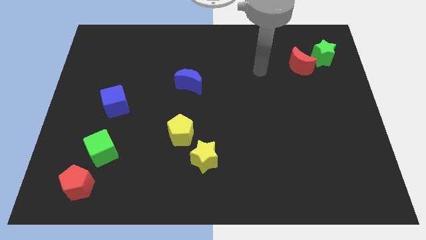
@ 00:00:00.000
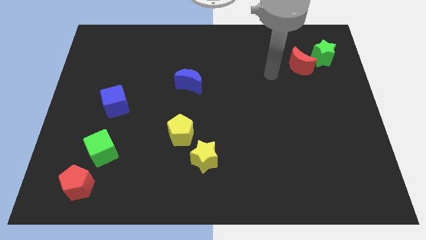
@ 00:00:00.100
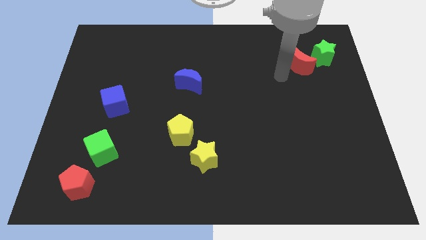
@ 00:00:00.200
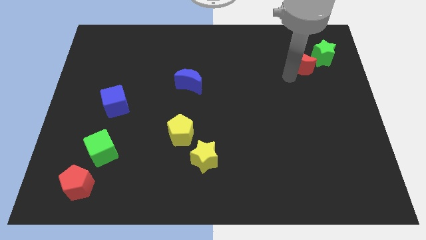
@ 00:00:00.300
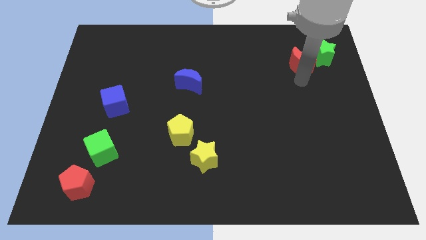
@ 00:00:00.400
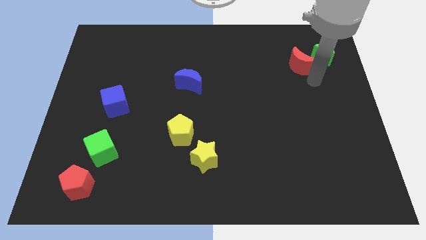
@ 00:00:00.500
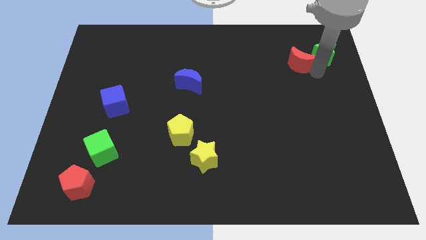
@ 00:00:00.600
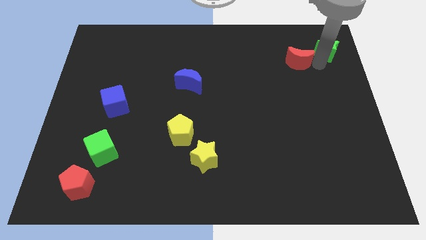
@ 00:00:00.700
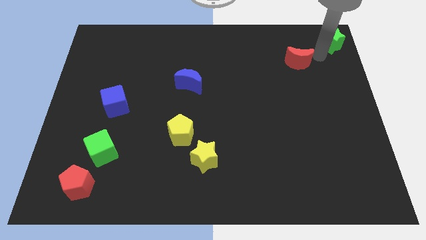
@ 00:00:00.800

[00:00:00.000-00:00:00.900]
move the red moon away from the green star

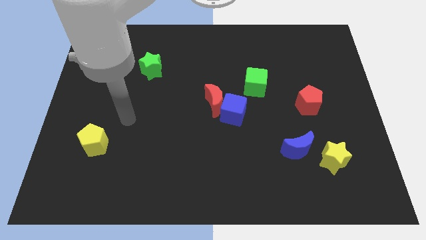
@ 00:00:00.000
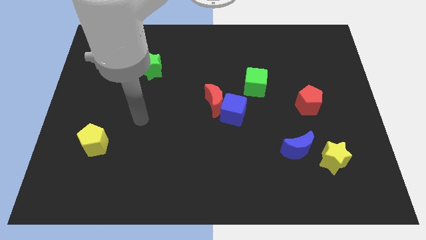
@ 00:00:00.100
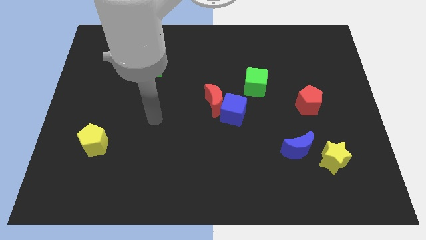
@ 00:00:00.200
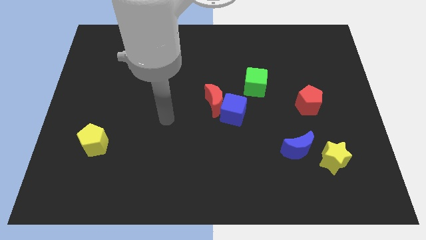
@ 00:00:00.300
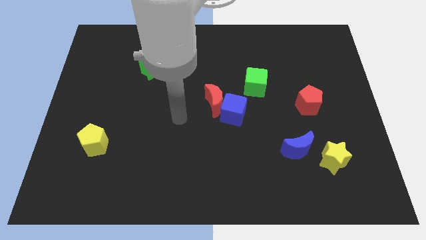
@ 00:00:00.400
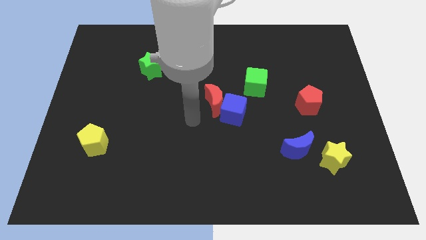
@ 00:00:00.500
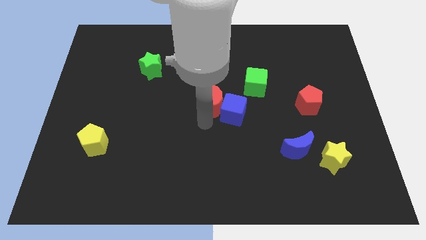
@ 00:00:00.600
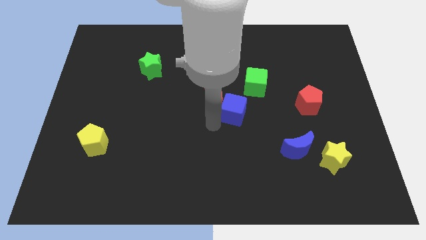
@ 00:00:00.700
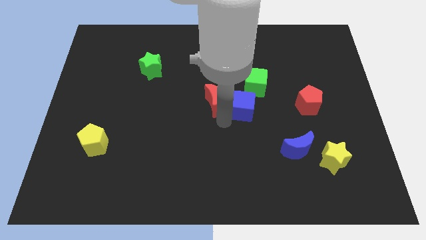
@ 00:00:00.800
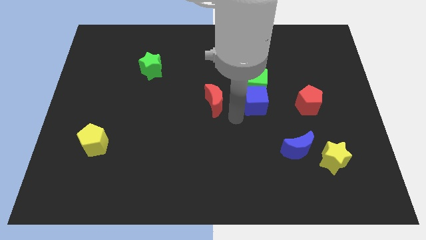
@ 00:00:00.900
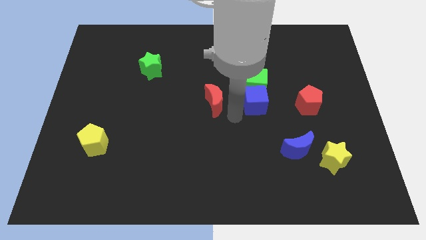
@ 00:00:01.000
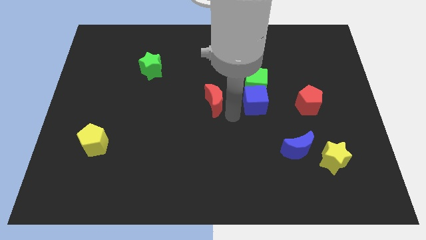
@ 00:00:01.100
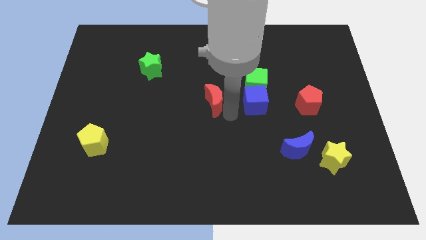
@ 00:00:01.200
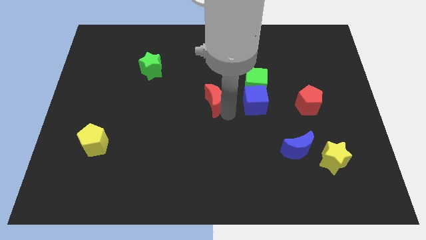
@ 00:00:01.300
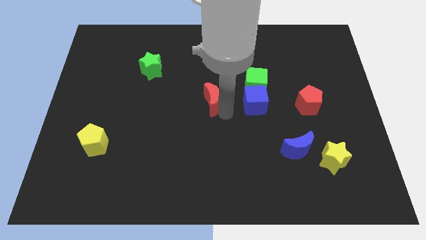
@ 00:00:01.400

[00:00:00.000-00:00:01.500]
pull the red moon apart from the blue cube

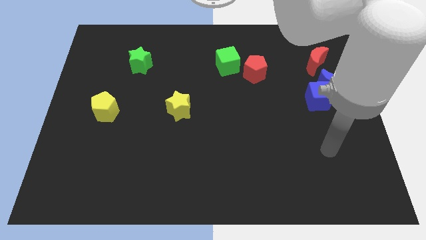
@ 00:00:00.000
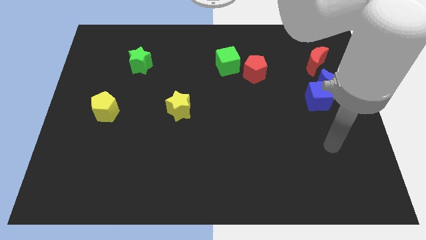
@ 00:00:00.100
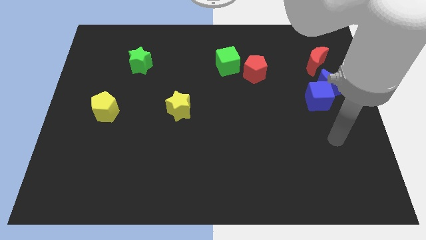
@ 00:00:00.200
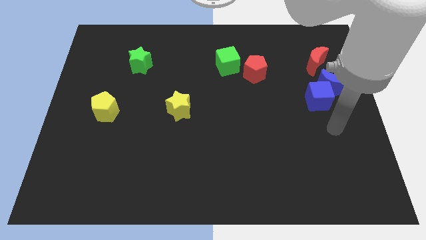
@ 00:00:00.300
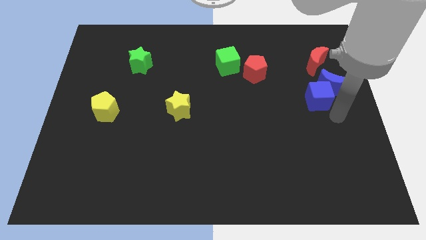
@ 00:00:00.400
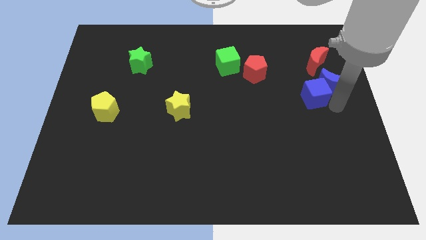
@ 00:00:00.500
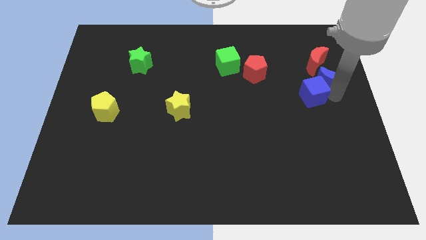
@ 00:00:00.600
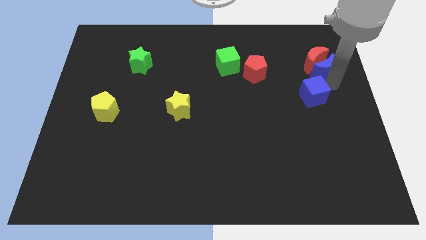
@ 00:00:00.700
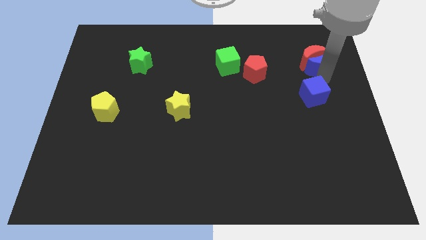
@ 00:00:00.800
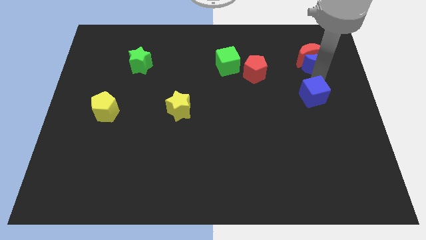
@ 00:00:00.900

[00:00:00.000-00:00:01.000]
move the blue cube away from the blue moon

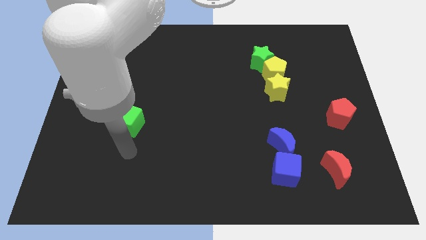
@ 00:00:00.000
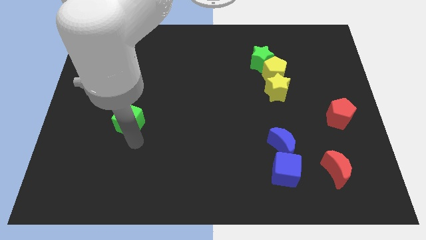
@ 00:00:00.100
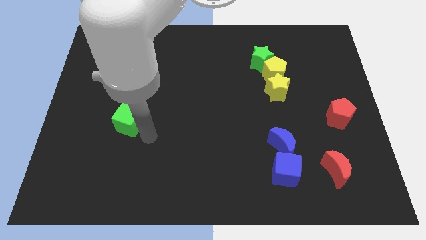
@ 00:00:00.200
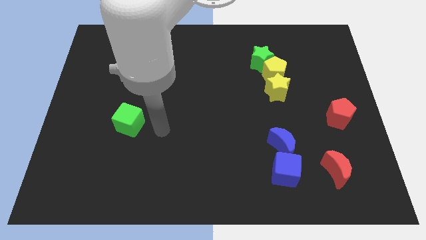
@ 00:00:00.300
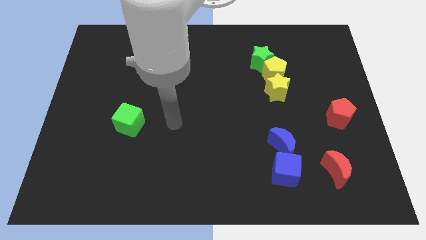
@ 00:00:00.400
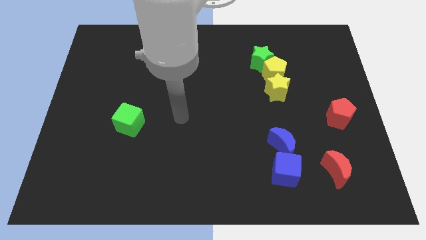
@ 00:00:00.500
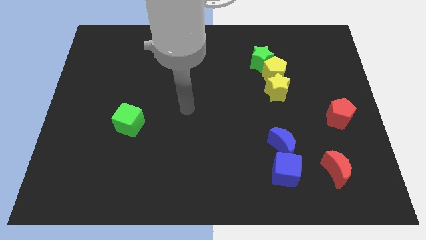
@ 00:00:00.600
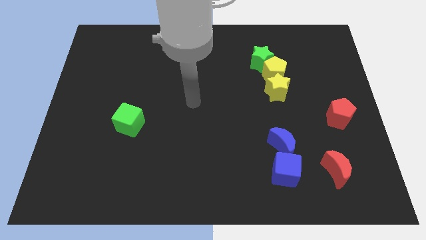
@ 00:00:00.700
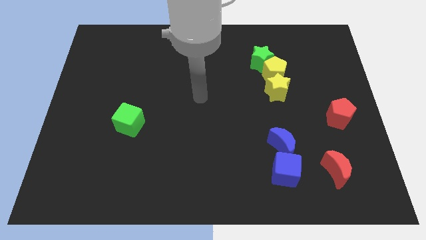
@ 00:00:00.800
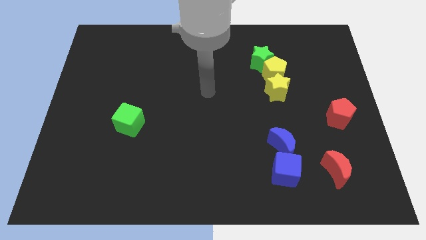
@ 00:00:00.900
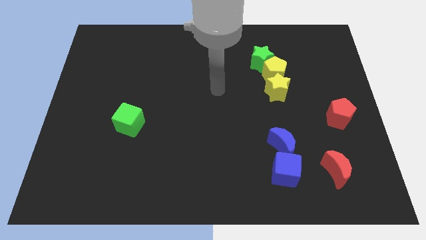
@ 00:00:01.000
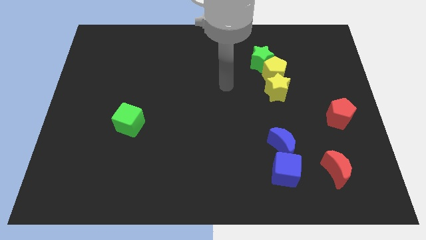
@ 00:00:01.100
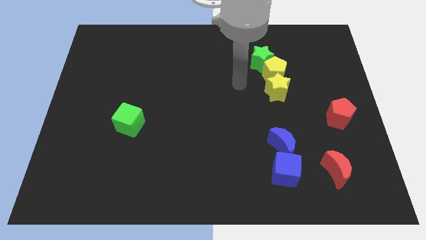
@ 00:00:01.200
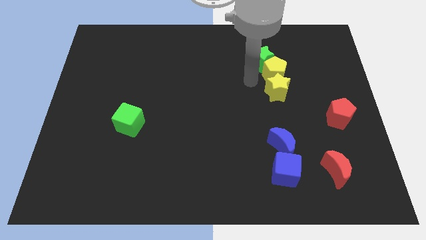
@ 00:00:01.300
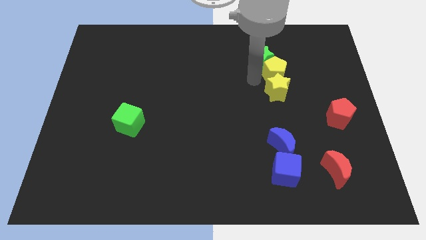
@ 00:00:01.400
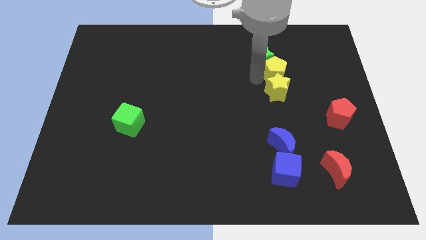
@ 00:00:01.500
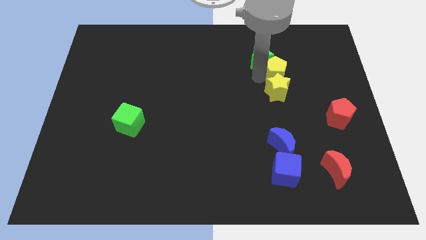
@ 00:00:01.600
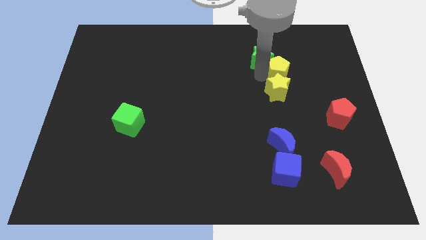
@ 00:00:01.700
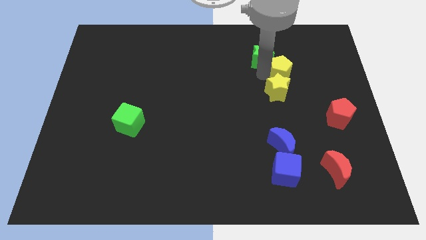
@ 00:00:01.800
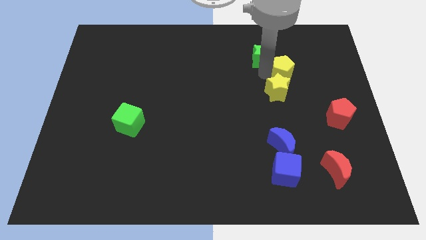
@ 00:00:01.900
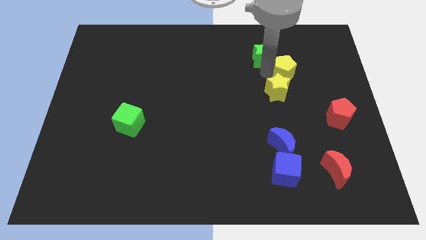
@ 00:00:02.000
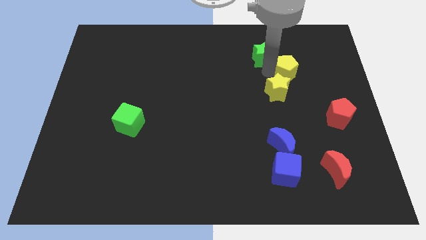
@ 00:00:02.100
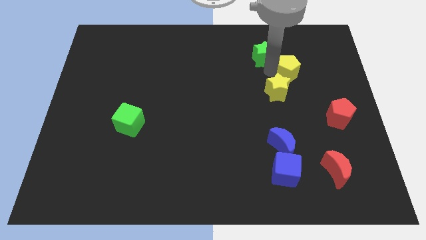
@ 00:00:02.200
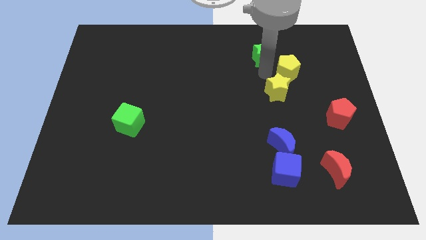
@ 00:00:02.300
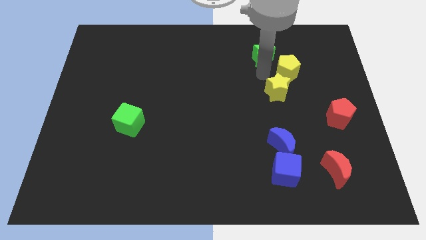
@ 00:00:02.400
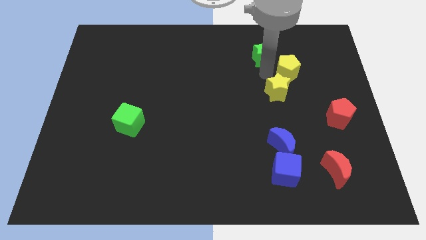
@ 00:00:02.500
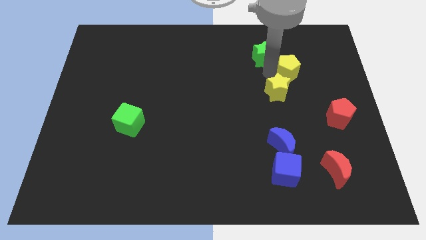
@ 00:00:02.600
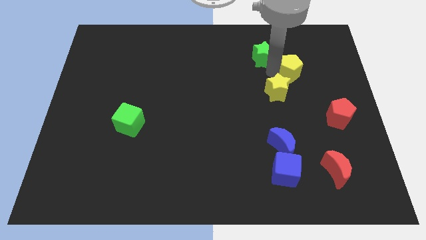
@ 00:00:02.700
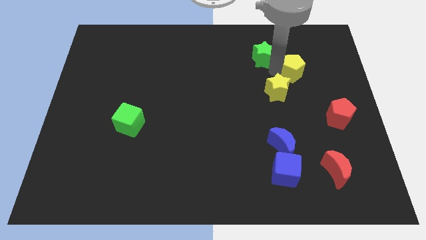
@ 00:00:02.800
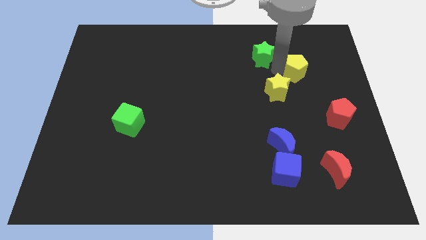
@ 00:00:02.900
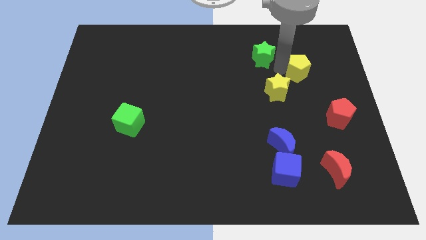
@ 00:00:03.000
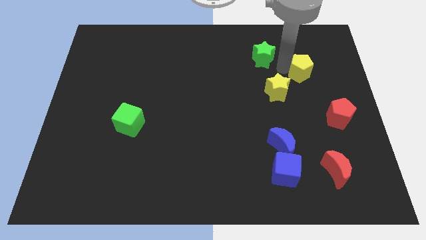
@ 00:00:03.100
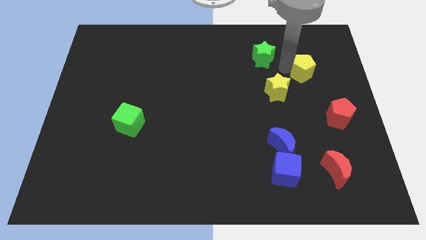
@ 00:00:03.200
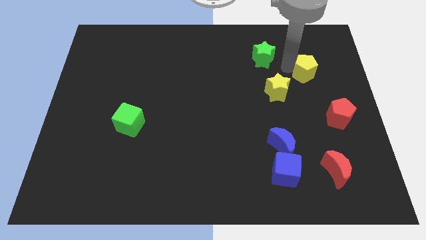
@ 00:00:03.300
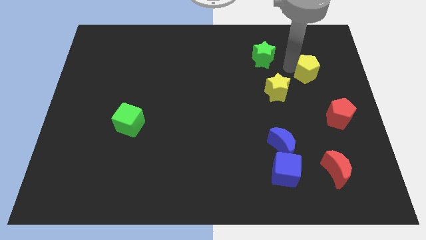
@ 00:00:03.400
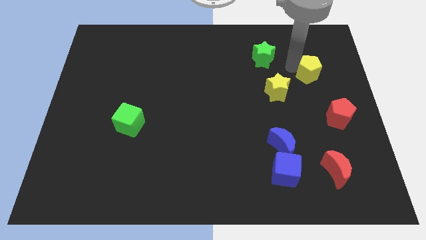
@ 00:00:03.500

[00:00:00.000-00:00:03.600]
separate the yellow pentagon from the green star and yellow star

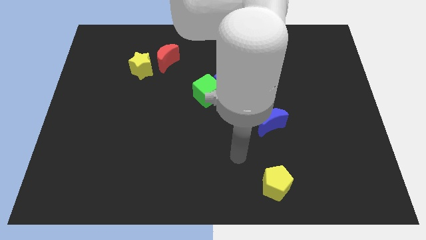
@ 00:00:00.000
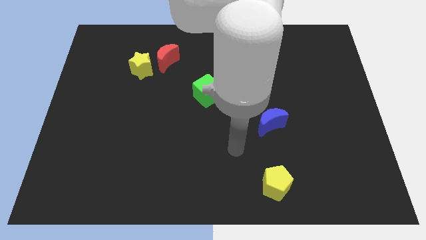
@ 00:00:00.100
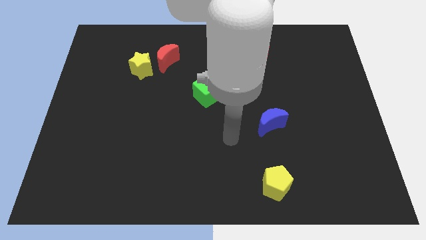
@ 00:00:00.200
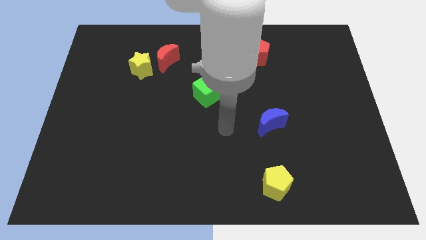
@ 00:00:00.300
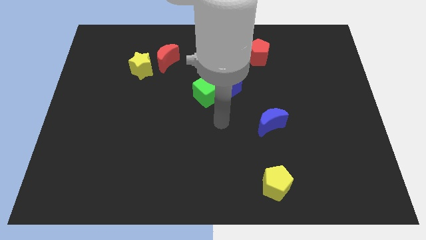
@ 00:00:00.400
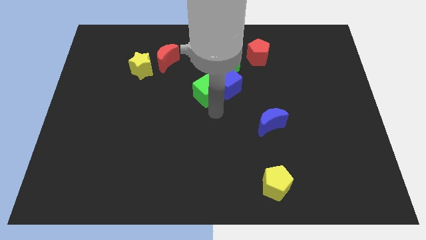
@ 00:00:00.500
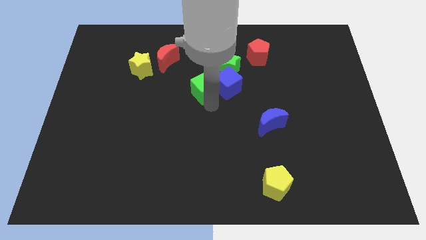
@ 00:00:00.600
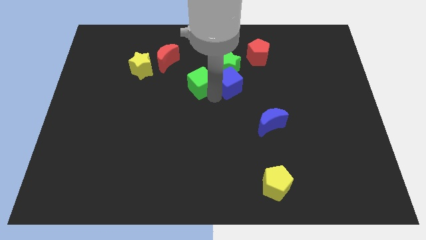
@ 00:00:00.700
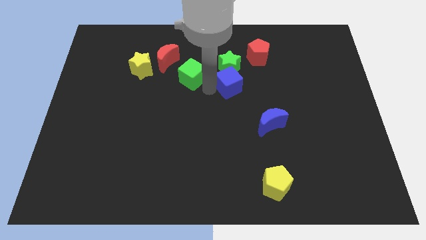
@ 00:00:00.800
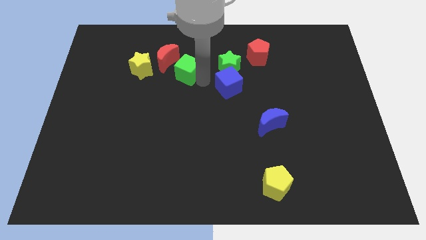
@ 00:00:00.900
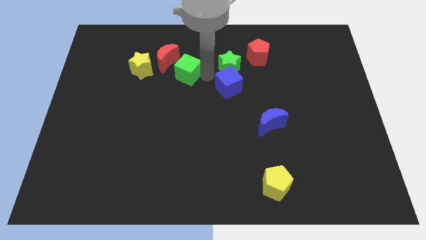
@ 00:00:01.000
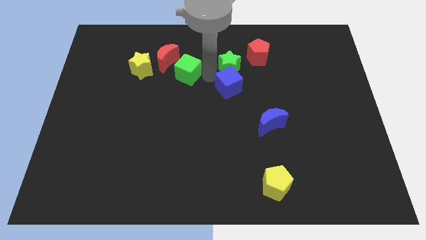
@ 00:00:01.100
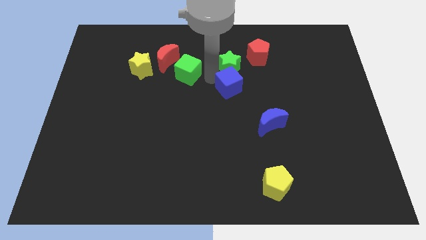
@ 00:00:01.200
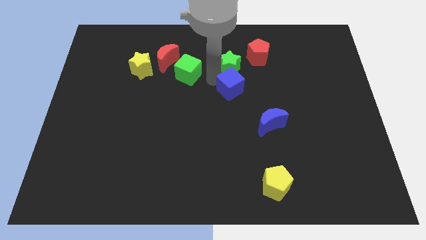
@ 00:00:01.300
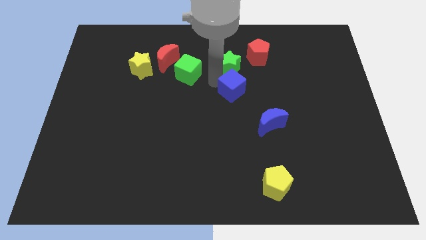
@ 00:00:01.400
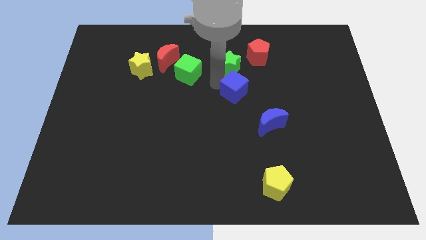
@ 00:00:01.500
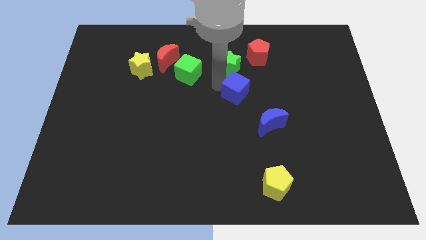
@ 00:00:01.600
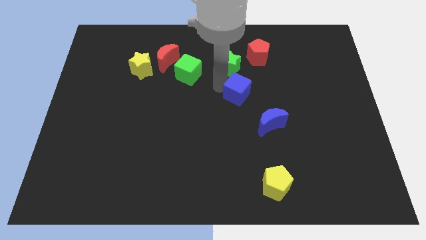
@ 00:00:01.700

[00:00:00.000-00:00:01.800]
separate the blue cube from the green cube and green star

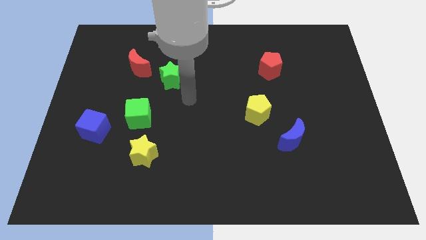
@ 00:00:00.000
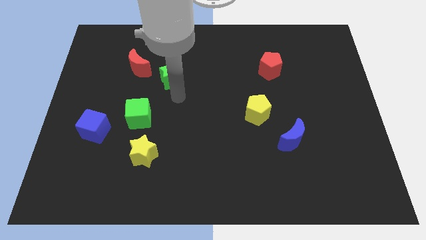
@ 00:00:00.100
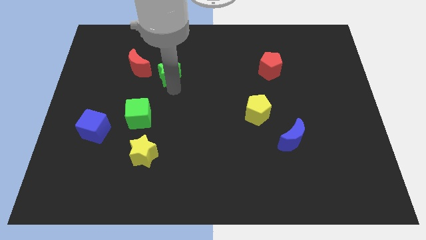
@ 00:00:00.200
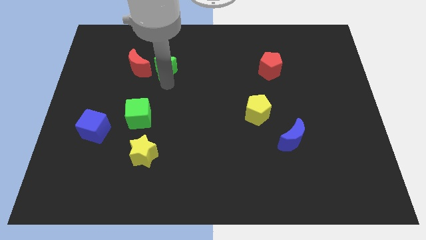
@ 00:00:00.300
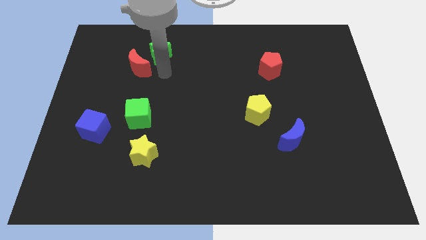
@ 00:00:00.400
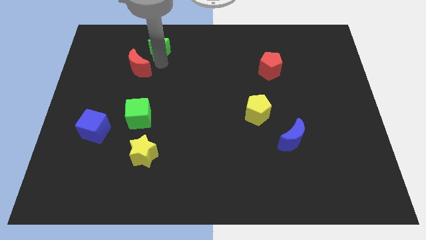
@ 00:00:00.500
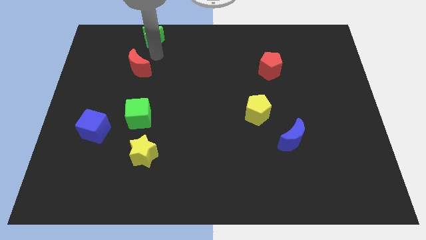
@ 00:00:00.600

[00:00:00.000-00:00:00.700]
pull the red moon apart from the green star
